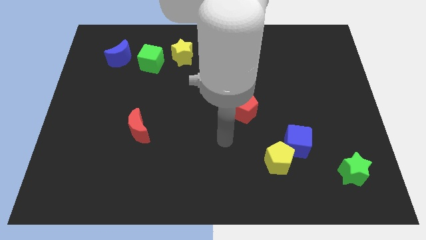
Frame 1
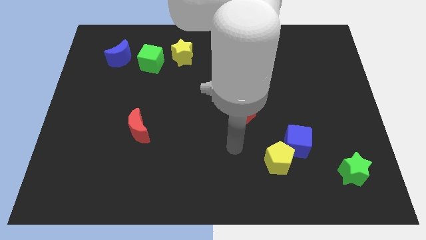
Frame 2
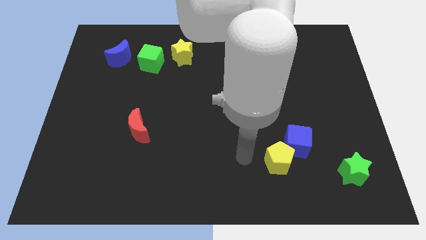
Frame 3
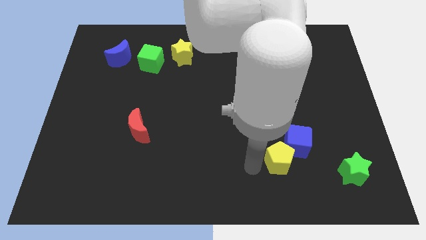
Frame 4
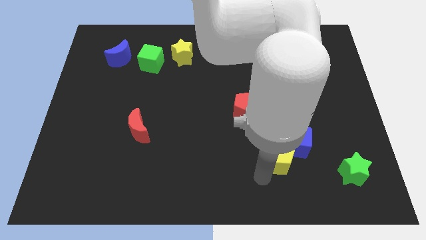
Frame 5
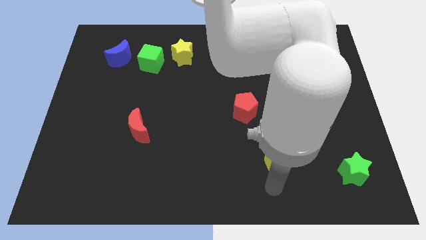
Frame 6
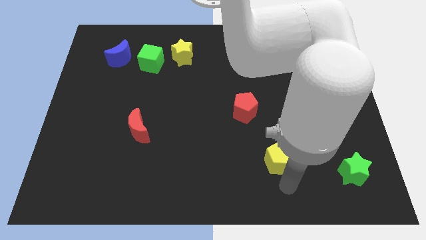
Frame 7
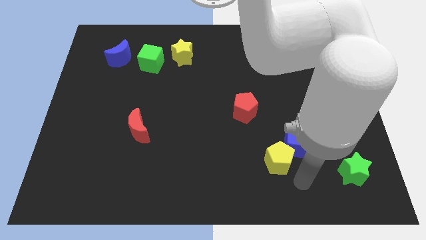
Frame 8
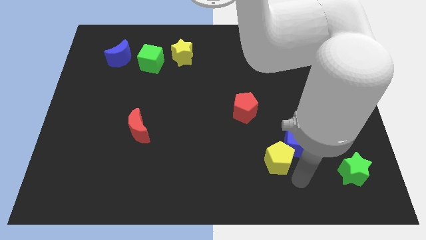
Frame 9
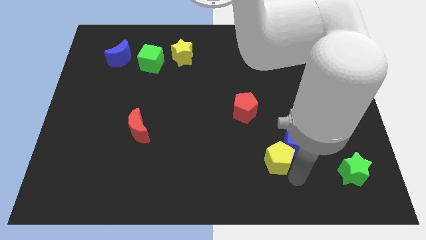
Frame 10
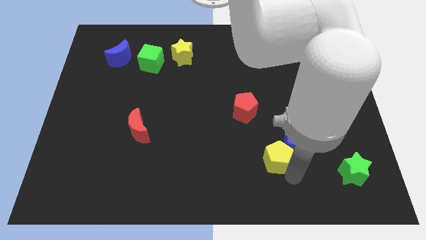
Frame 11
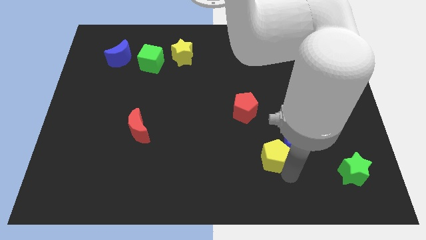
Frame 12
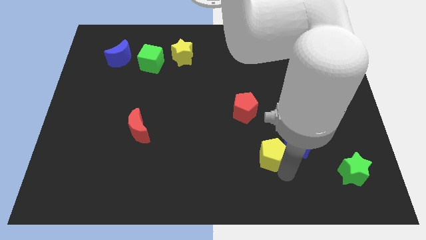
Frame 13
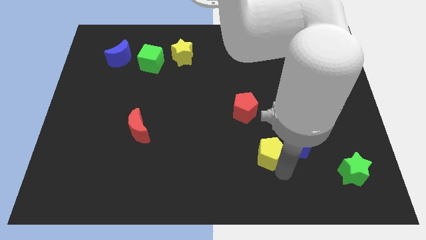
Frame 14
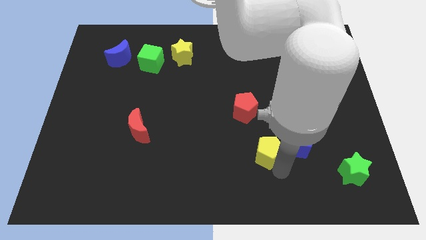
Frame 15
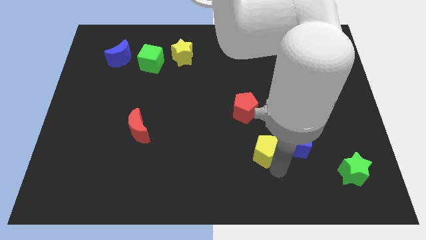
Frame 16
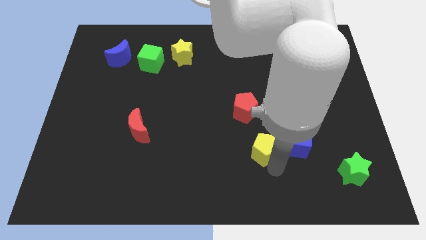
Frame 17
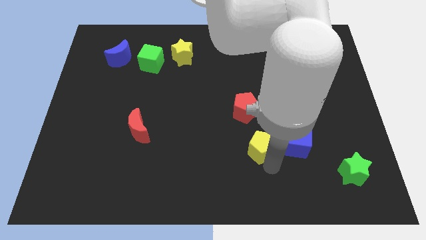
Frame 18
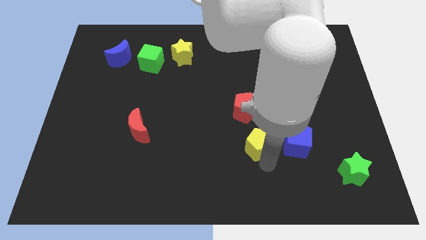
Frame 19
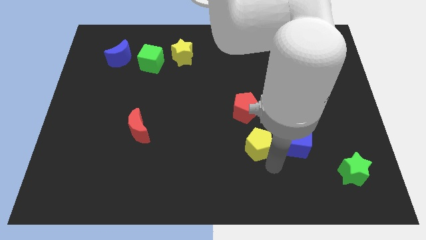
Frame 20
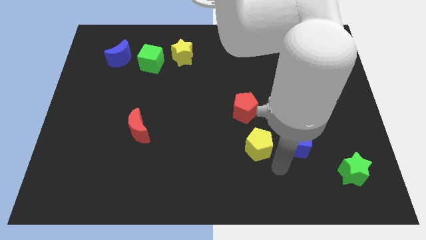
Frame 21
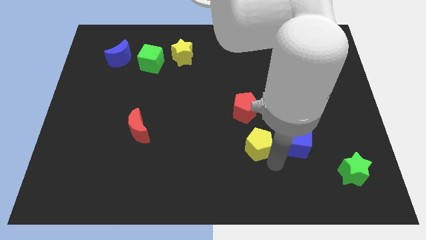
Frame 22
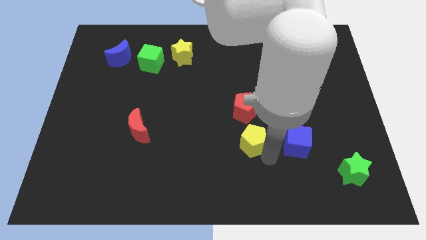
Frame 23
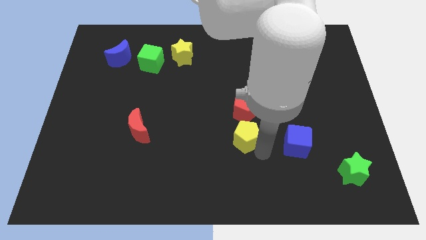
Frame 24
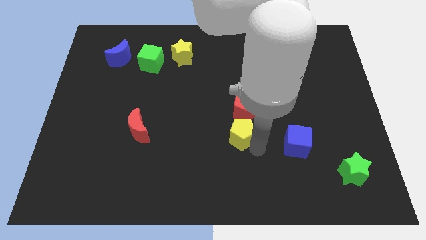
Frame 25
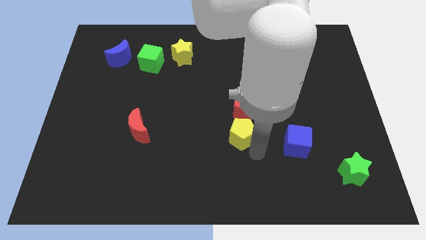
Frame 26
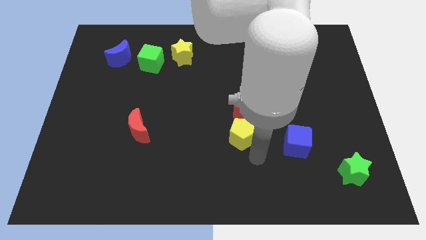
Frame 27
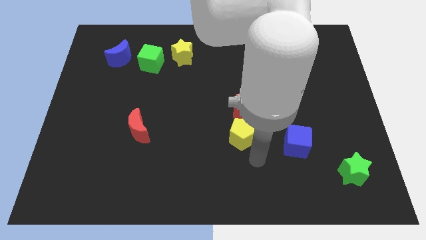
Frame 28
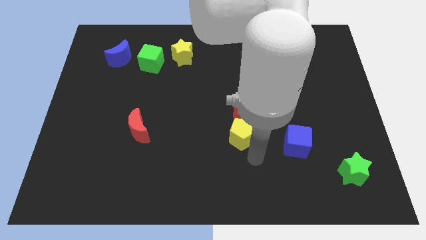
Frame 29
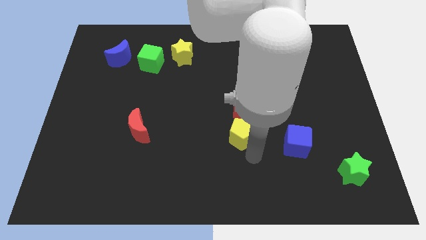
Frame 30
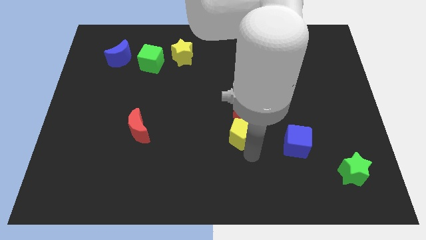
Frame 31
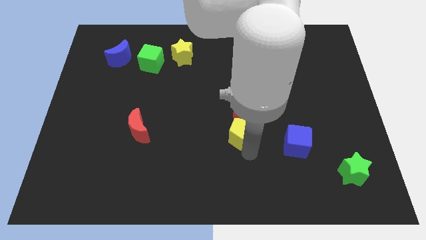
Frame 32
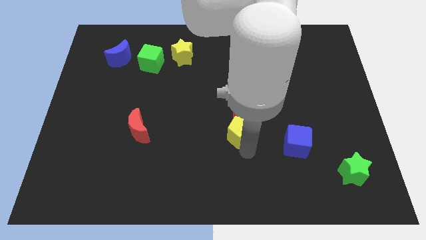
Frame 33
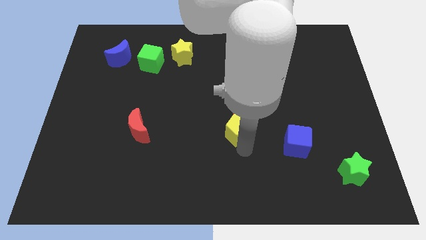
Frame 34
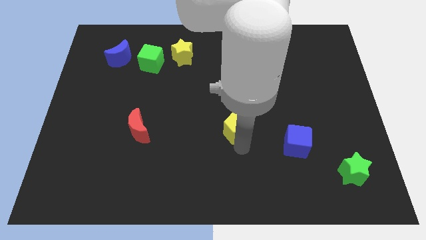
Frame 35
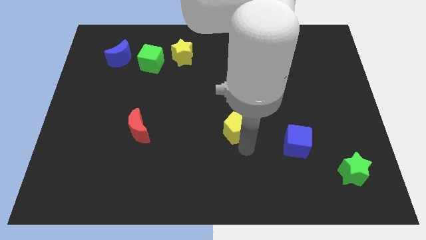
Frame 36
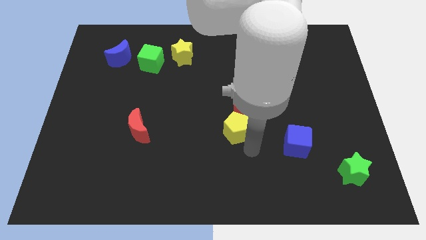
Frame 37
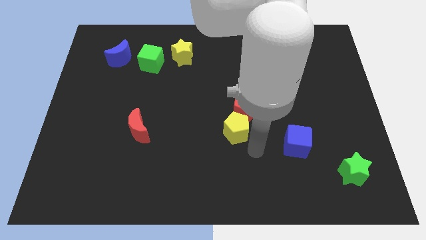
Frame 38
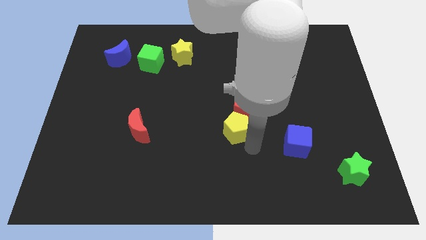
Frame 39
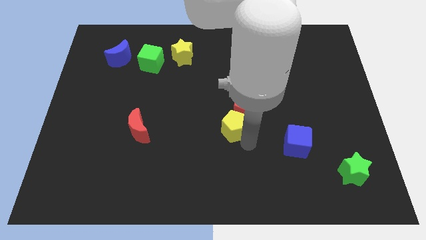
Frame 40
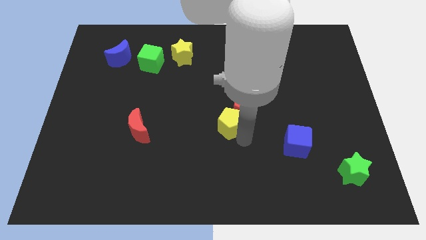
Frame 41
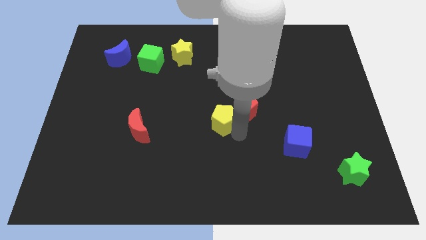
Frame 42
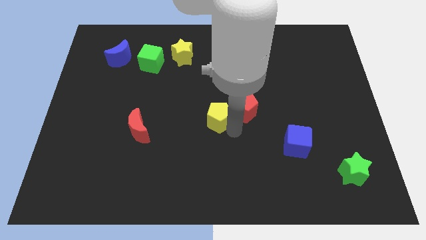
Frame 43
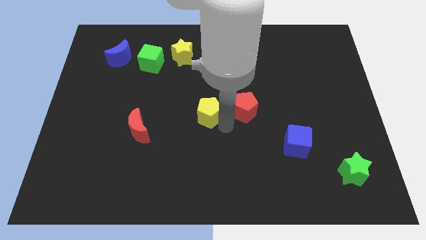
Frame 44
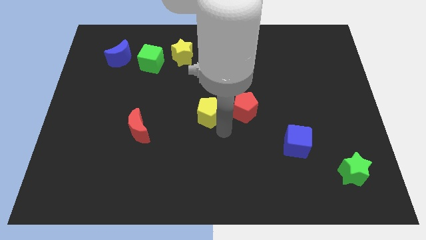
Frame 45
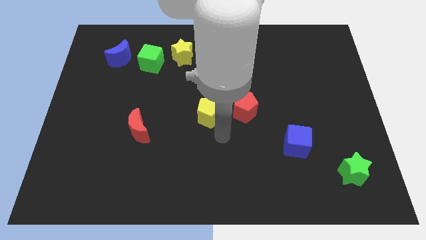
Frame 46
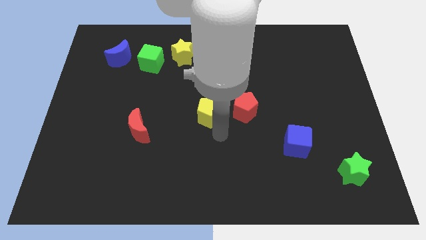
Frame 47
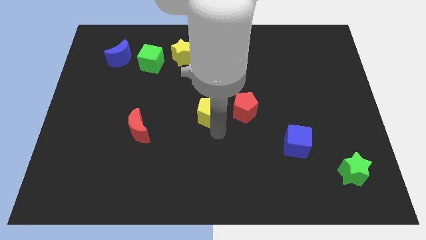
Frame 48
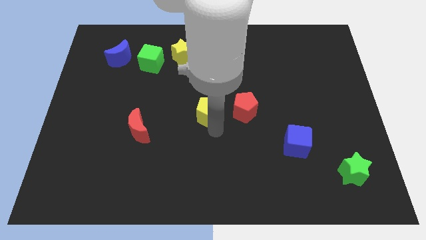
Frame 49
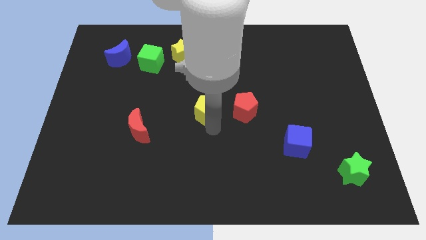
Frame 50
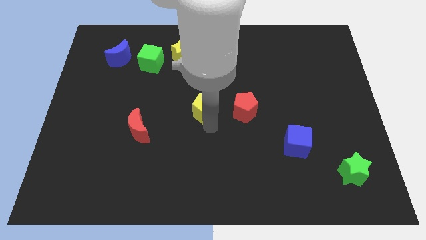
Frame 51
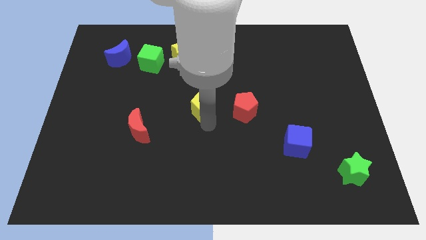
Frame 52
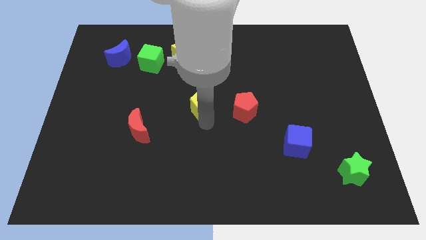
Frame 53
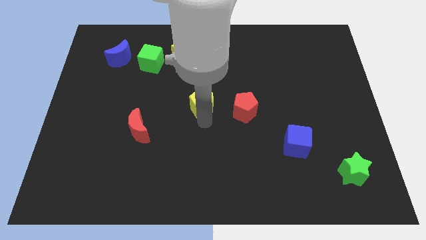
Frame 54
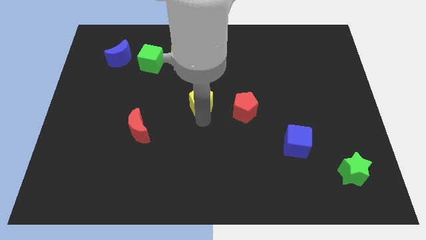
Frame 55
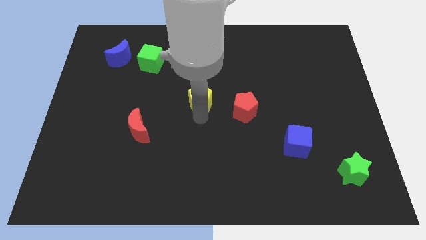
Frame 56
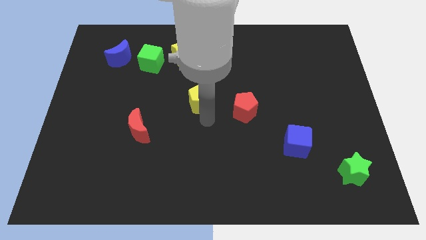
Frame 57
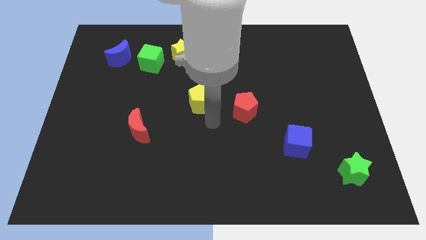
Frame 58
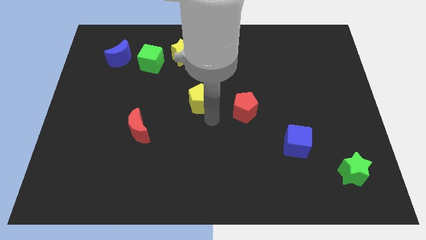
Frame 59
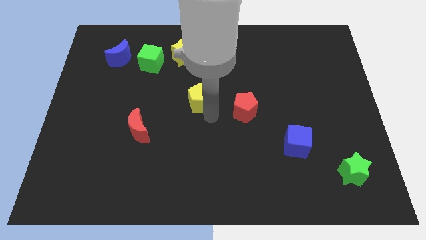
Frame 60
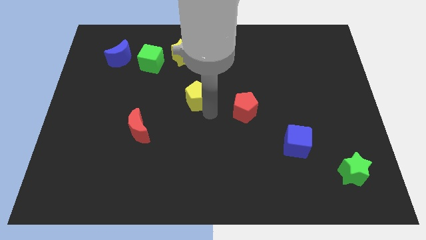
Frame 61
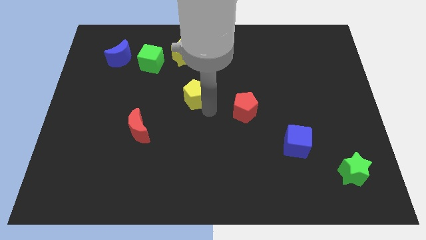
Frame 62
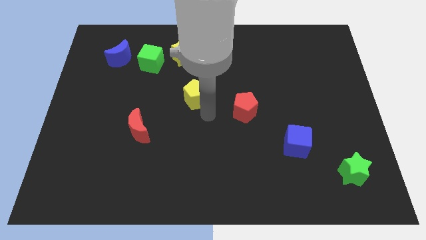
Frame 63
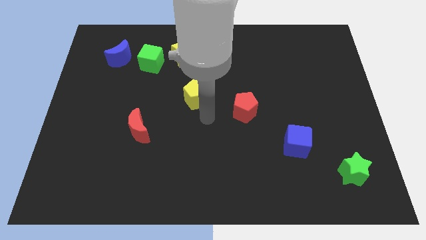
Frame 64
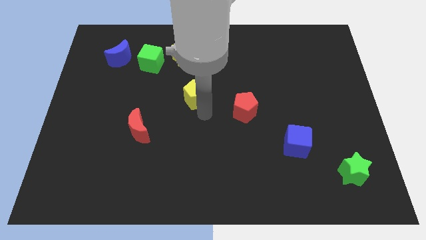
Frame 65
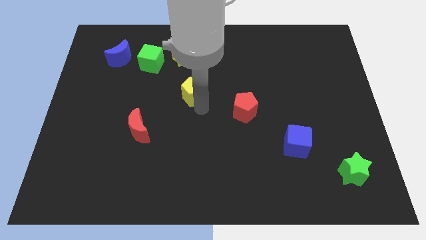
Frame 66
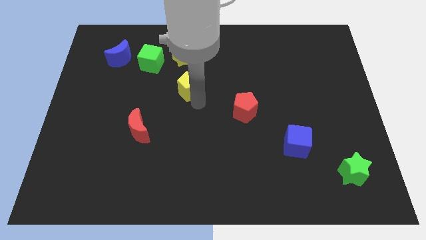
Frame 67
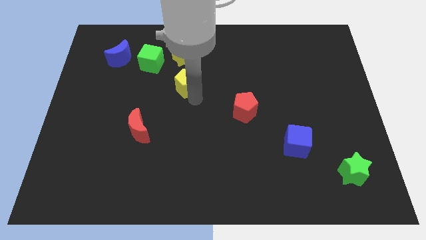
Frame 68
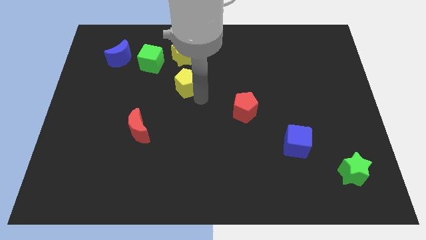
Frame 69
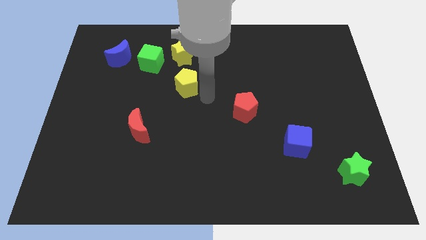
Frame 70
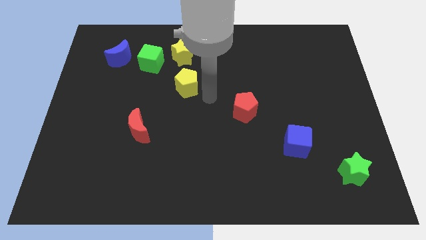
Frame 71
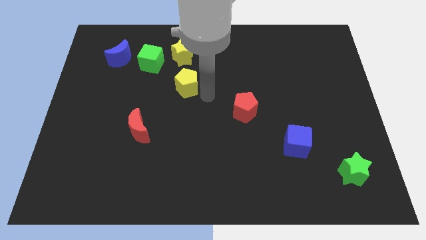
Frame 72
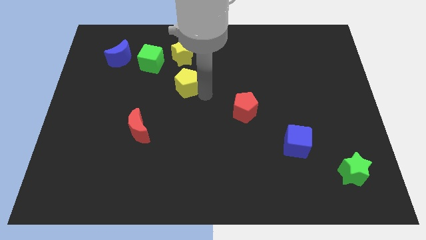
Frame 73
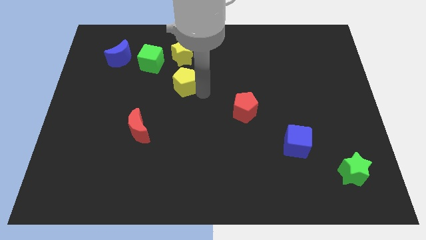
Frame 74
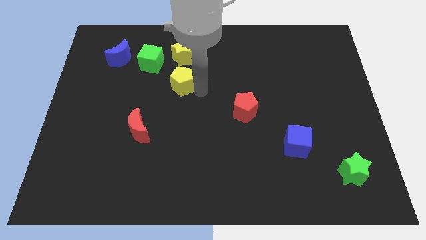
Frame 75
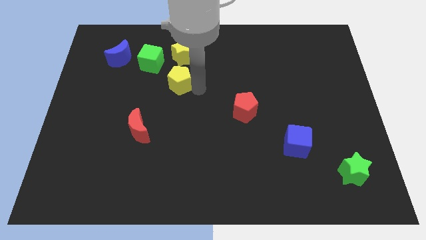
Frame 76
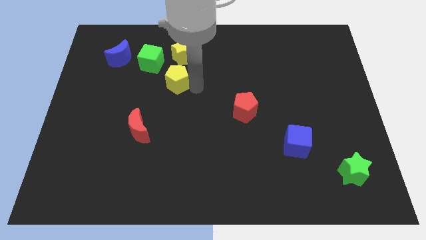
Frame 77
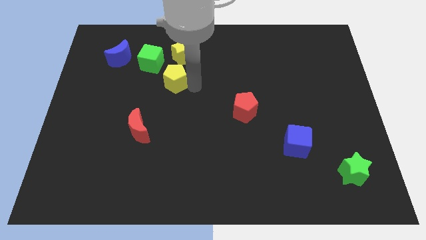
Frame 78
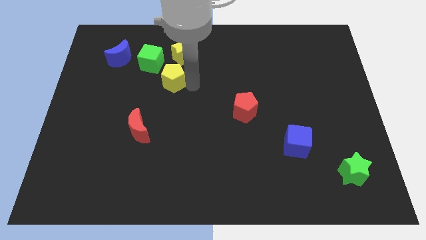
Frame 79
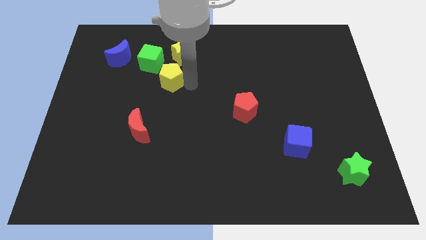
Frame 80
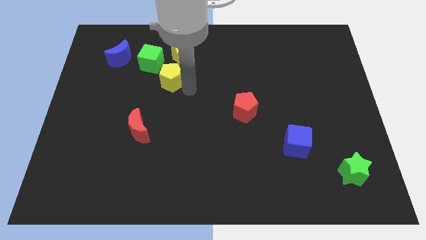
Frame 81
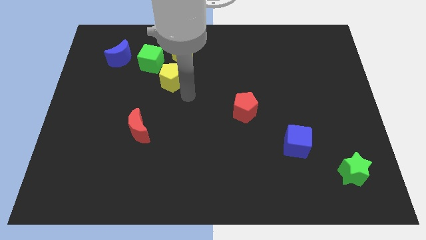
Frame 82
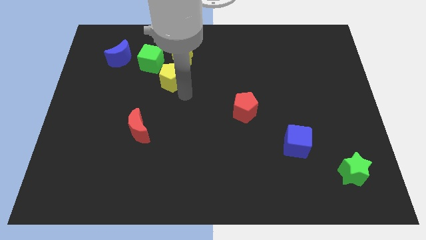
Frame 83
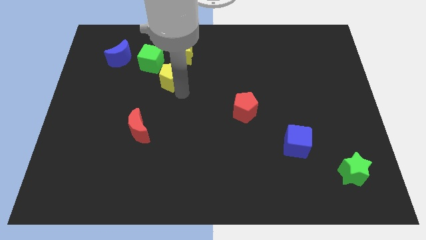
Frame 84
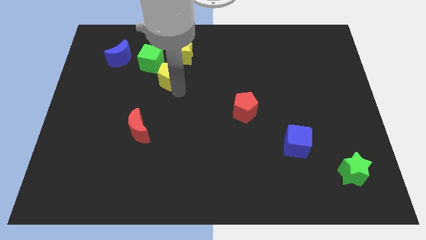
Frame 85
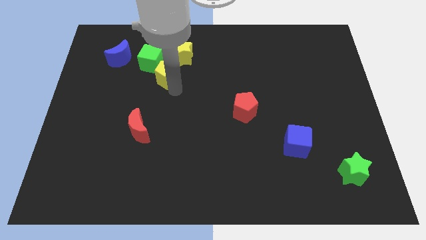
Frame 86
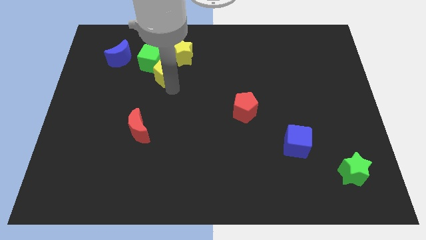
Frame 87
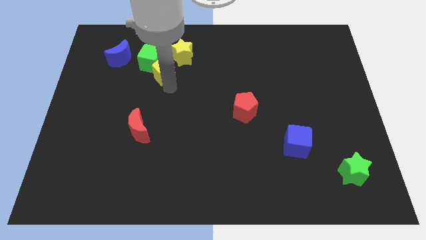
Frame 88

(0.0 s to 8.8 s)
move the yellow pentagon towards the green cube
